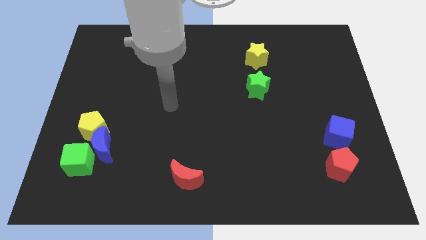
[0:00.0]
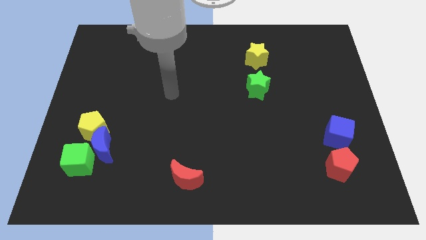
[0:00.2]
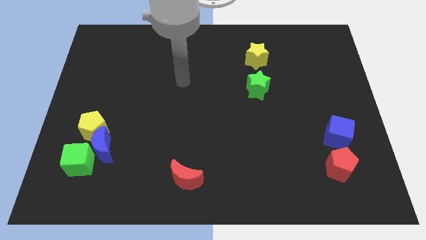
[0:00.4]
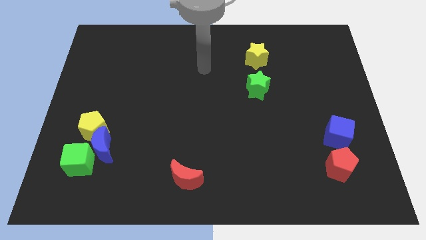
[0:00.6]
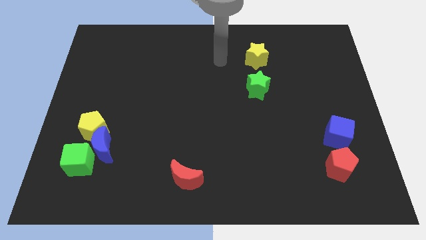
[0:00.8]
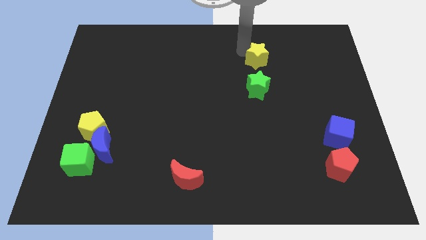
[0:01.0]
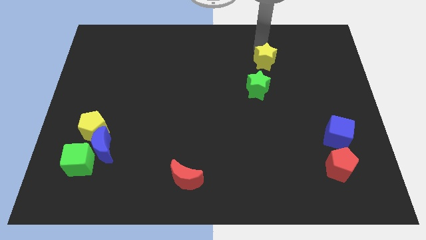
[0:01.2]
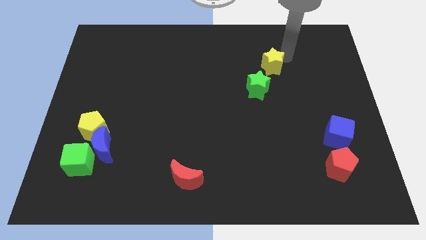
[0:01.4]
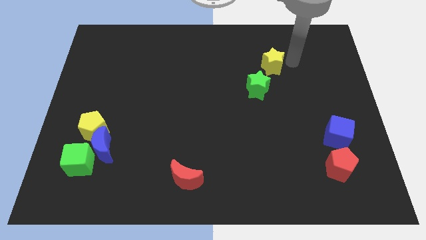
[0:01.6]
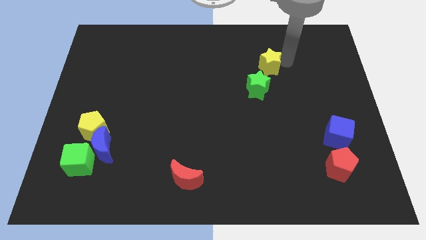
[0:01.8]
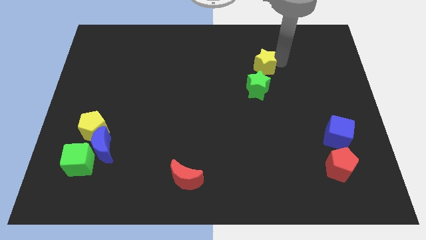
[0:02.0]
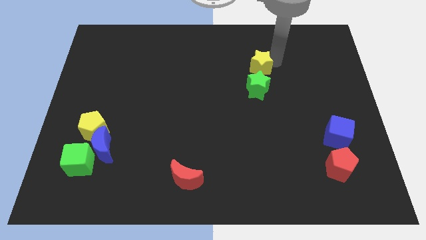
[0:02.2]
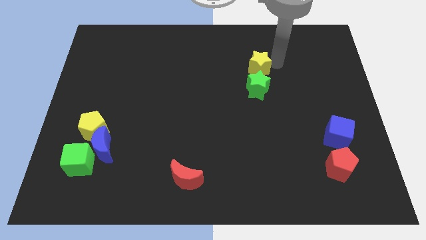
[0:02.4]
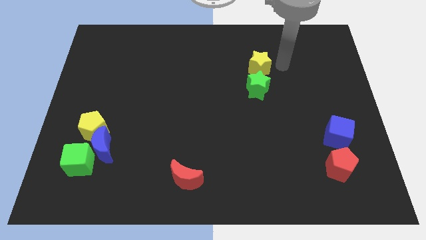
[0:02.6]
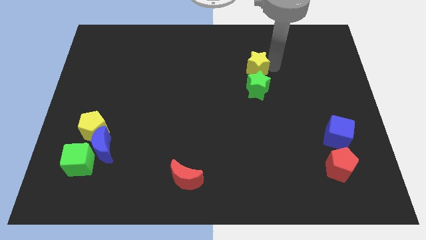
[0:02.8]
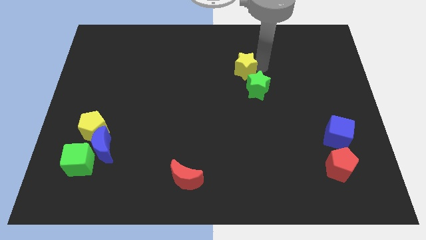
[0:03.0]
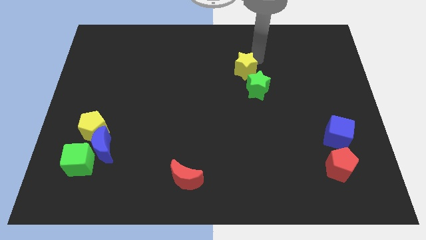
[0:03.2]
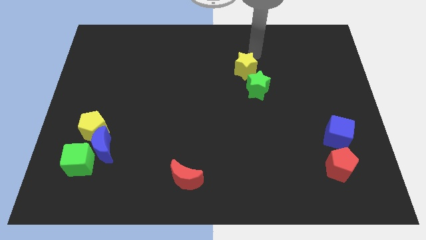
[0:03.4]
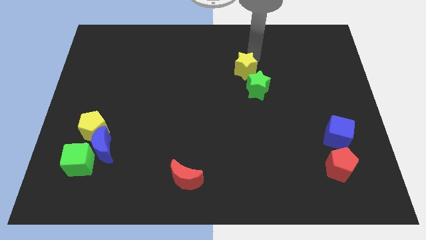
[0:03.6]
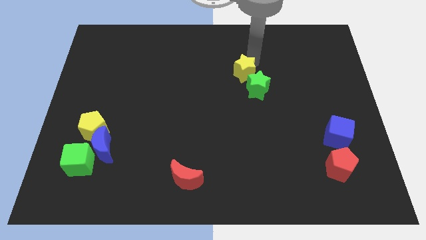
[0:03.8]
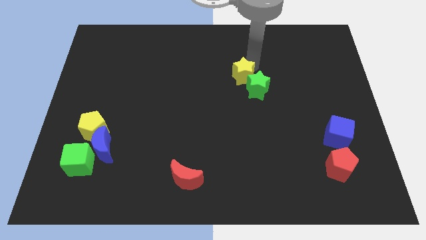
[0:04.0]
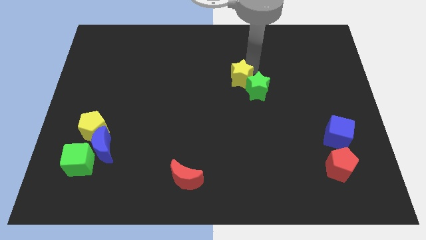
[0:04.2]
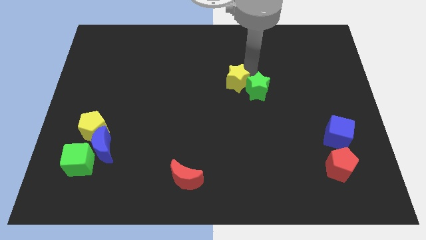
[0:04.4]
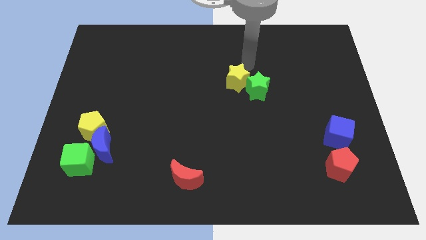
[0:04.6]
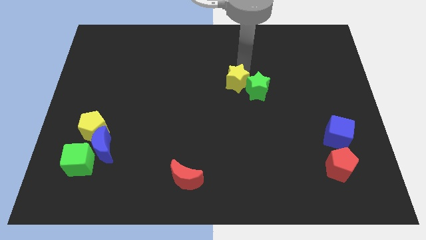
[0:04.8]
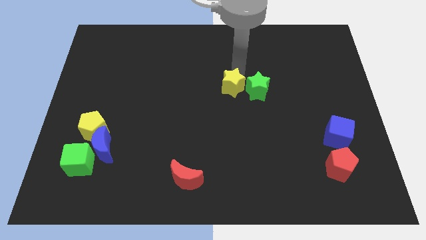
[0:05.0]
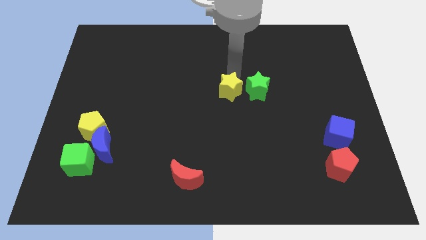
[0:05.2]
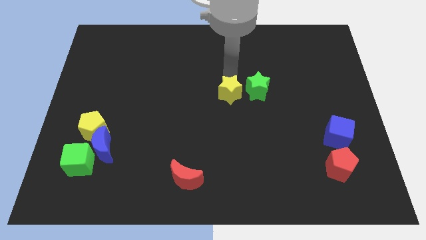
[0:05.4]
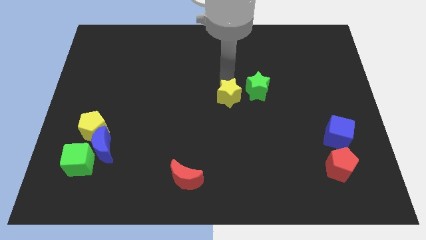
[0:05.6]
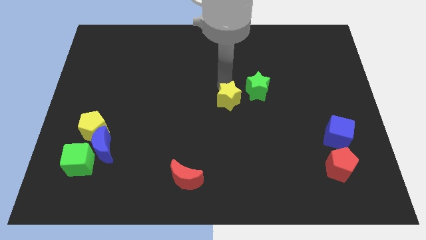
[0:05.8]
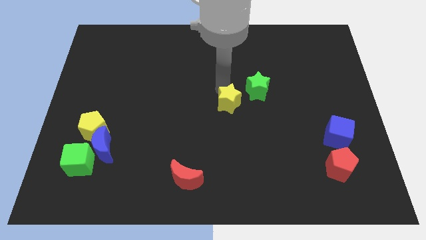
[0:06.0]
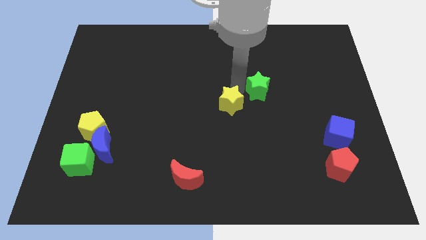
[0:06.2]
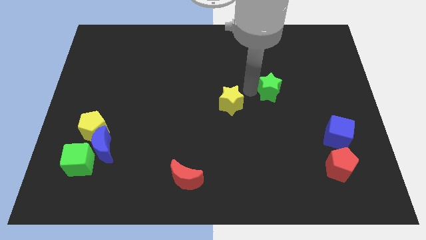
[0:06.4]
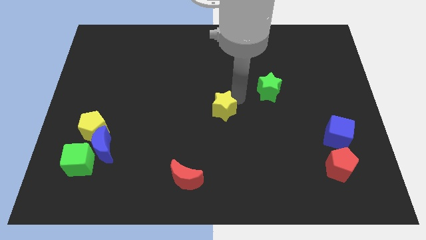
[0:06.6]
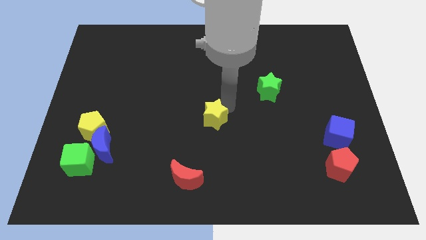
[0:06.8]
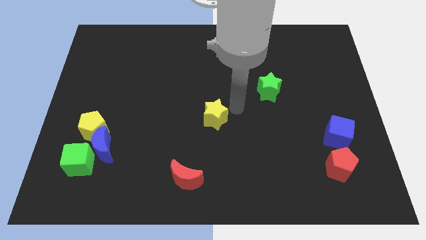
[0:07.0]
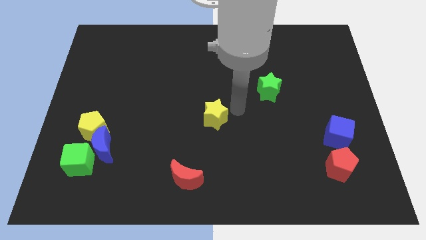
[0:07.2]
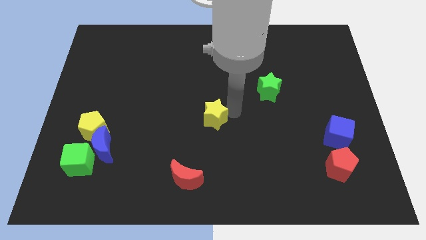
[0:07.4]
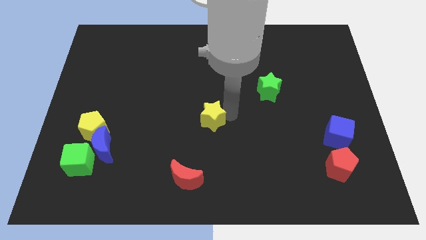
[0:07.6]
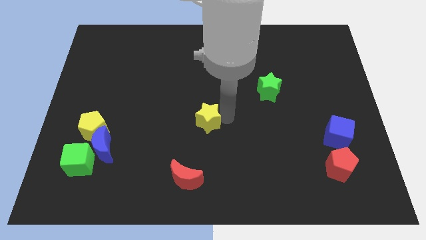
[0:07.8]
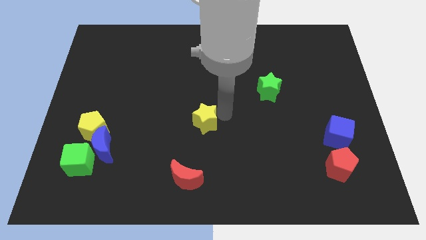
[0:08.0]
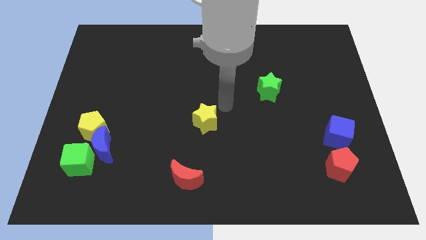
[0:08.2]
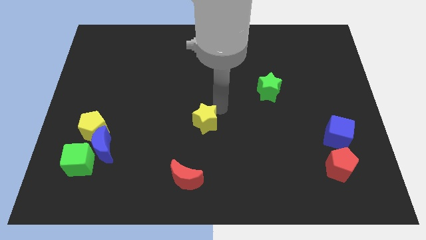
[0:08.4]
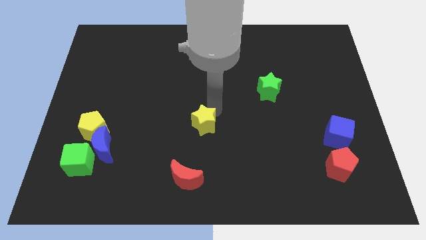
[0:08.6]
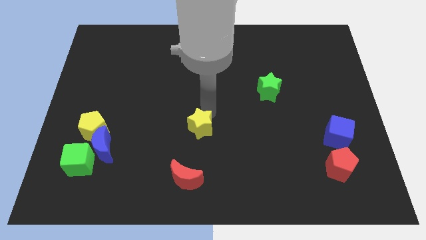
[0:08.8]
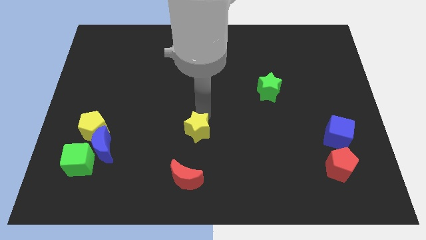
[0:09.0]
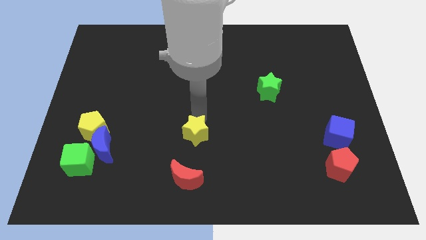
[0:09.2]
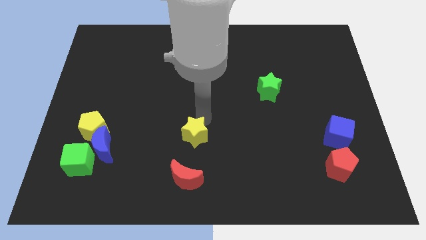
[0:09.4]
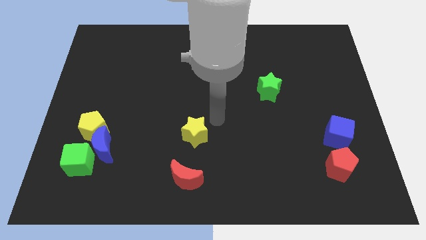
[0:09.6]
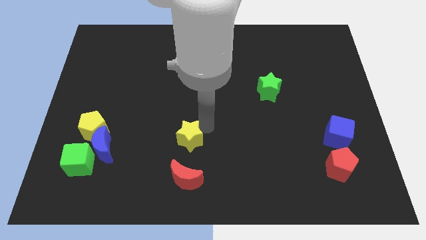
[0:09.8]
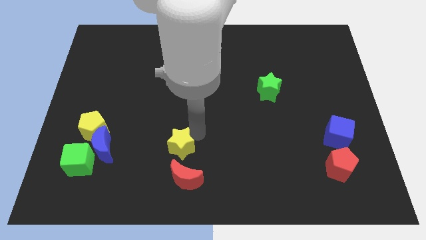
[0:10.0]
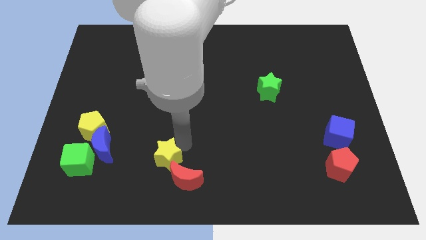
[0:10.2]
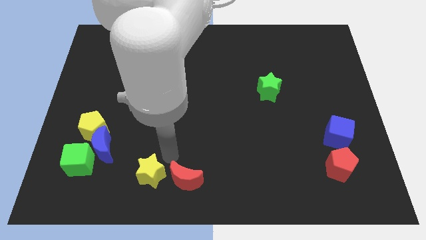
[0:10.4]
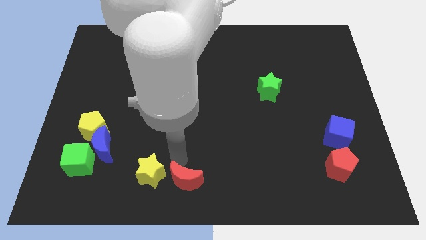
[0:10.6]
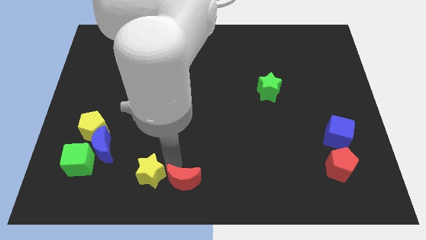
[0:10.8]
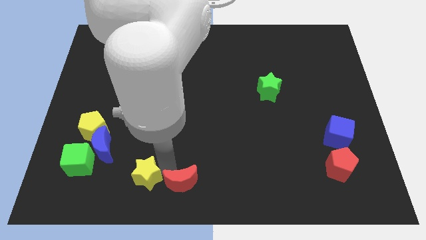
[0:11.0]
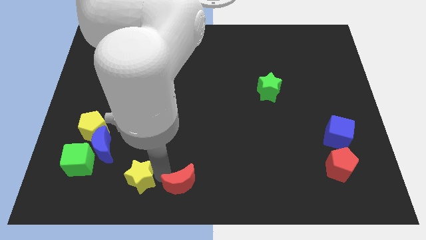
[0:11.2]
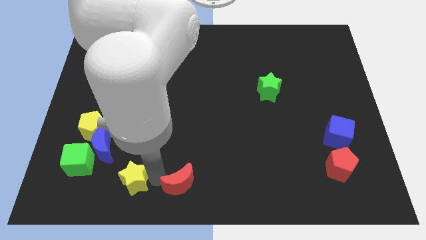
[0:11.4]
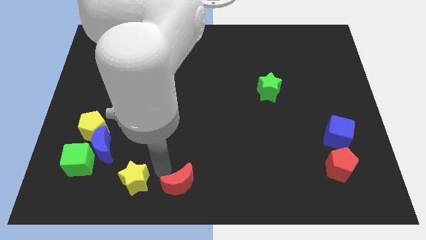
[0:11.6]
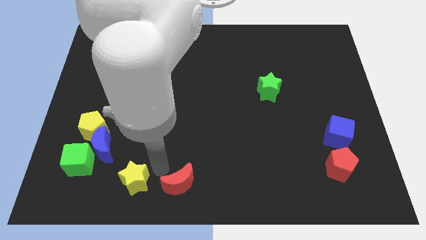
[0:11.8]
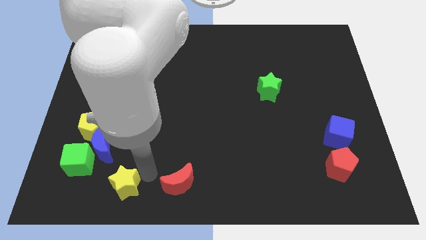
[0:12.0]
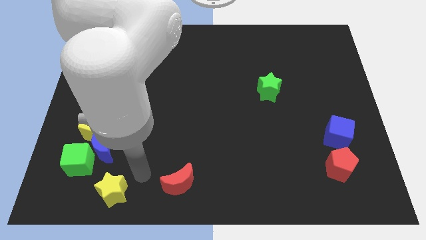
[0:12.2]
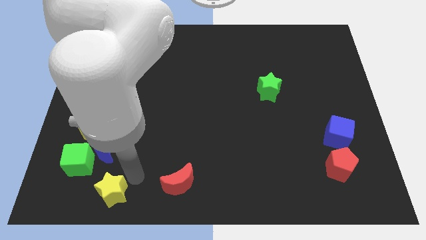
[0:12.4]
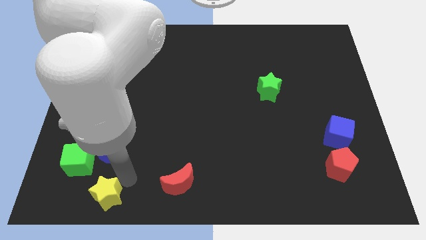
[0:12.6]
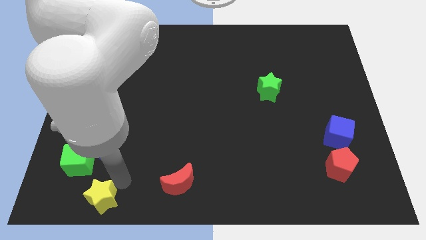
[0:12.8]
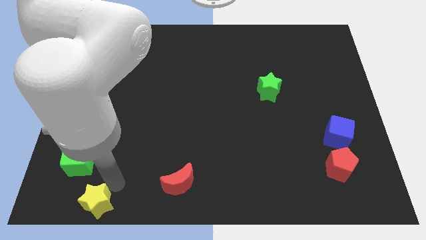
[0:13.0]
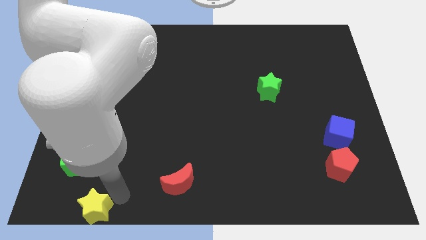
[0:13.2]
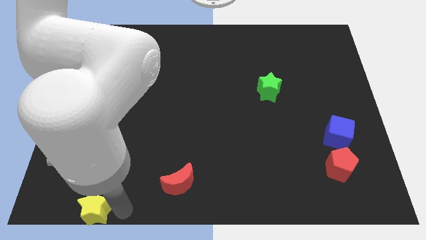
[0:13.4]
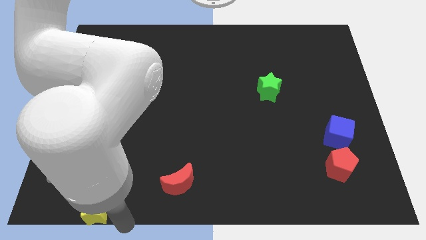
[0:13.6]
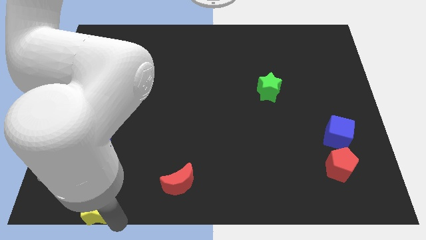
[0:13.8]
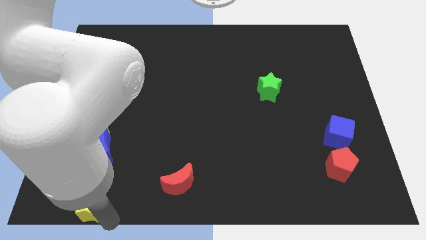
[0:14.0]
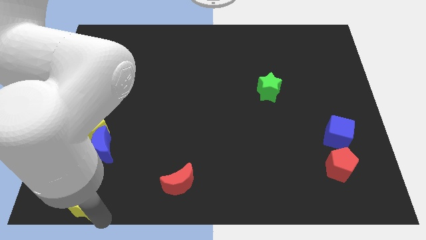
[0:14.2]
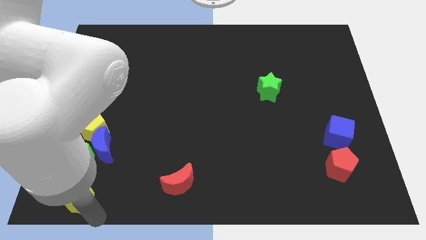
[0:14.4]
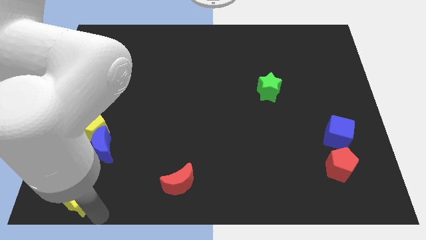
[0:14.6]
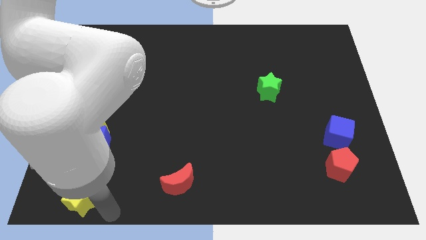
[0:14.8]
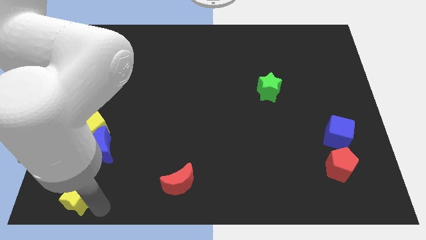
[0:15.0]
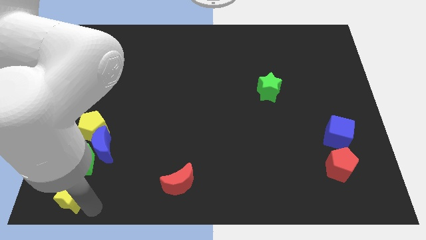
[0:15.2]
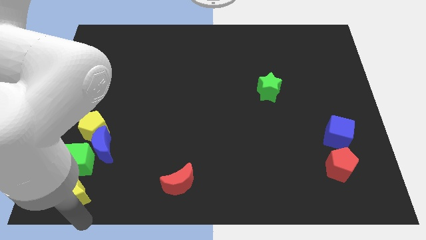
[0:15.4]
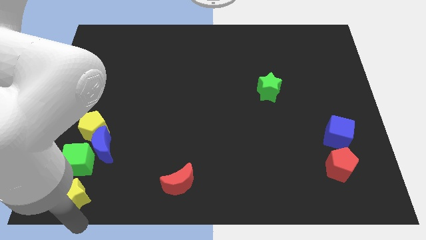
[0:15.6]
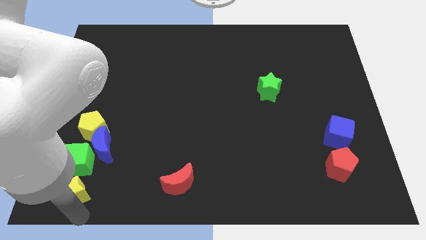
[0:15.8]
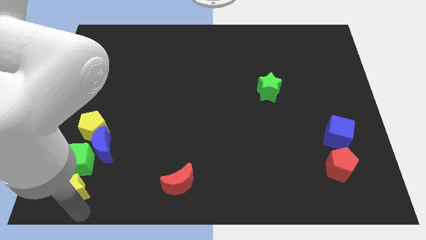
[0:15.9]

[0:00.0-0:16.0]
push the yellow star to the bottom left of the blue moon
